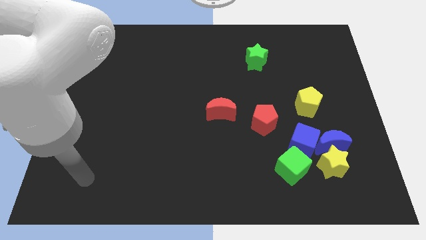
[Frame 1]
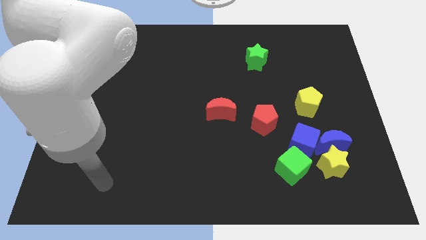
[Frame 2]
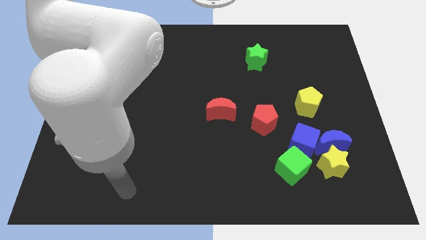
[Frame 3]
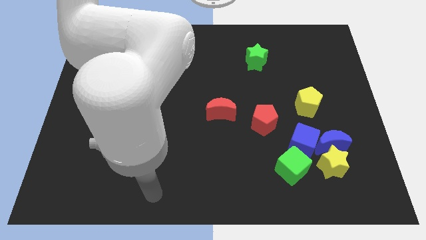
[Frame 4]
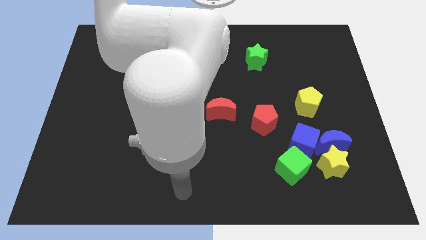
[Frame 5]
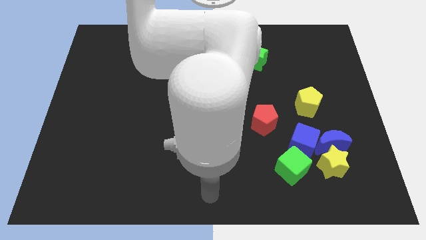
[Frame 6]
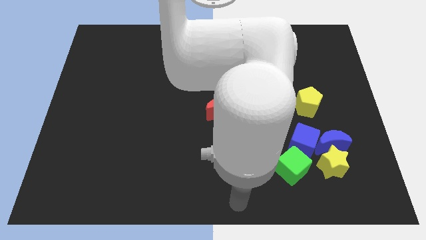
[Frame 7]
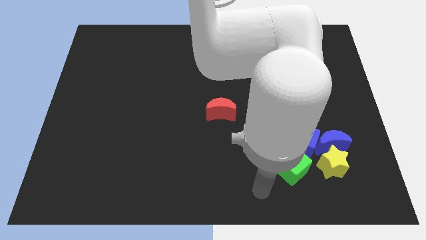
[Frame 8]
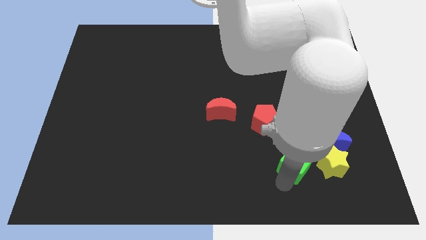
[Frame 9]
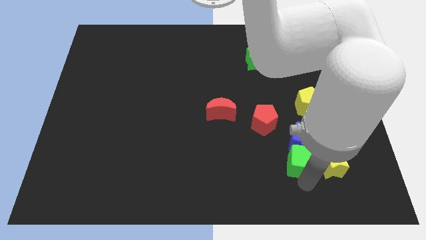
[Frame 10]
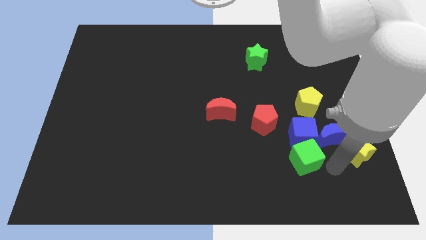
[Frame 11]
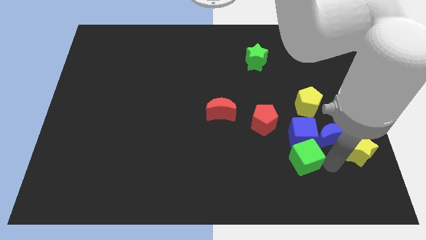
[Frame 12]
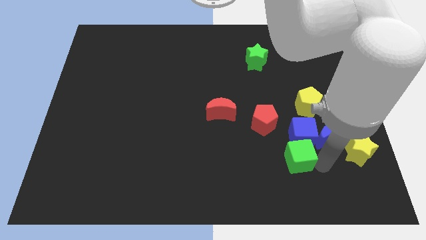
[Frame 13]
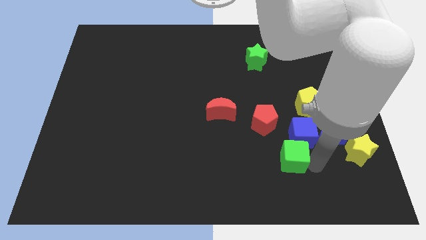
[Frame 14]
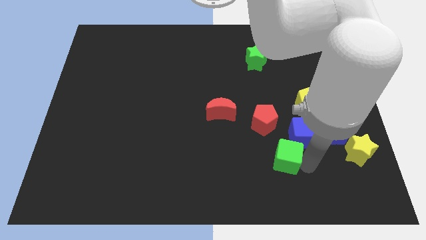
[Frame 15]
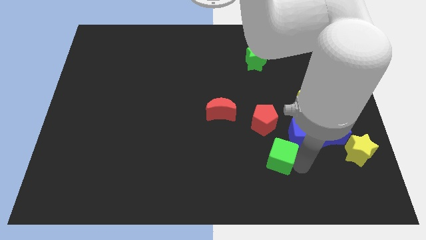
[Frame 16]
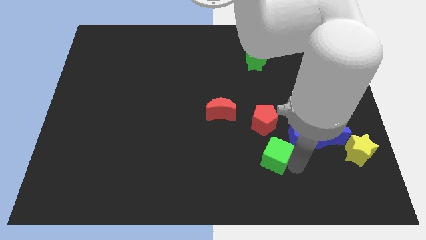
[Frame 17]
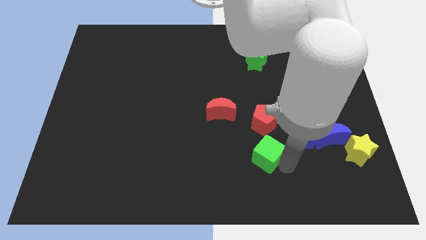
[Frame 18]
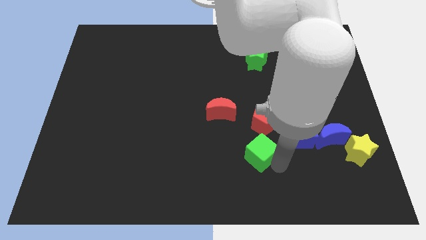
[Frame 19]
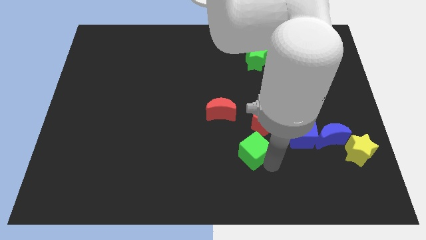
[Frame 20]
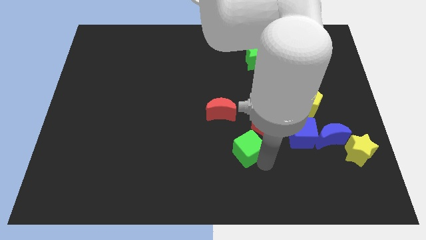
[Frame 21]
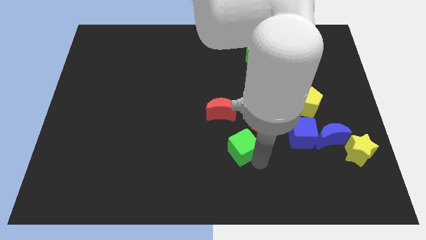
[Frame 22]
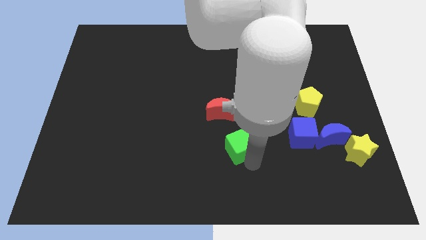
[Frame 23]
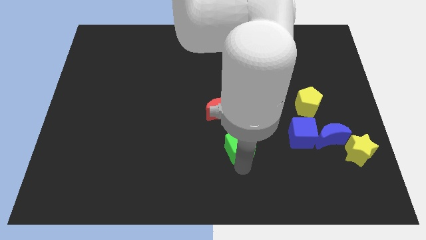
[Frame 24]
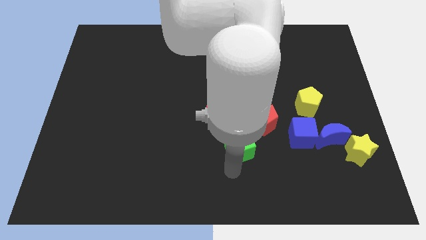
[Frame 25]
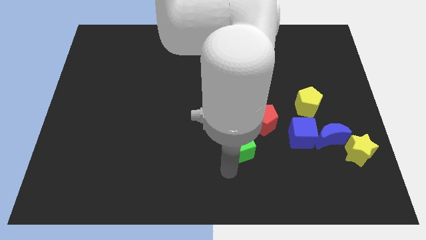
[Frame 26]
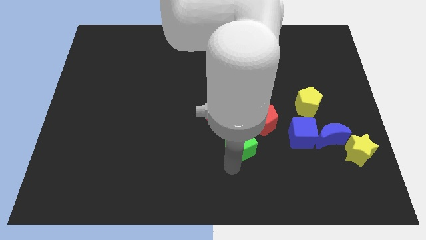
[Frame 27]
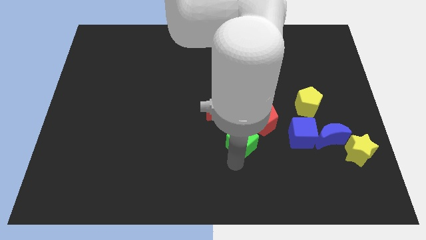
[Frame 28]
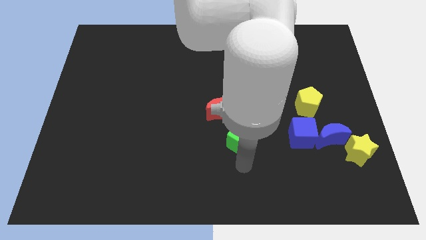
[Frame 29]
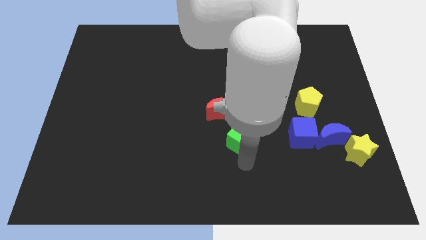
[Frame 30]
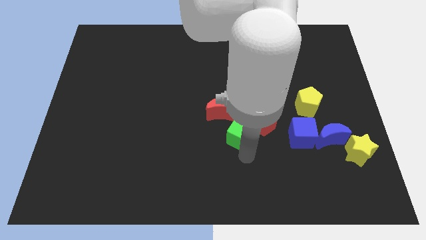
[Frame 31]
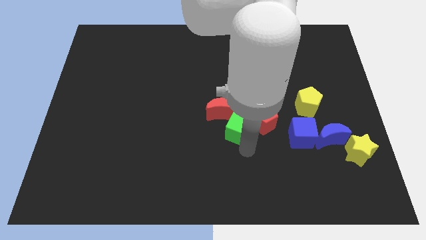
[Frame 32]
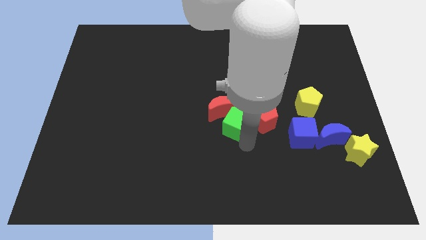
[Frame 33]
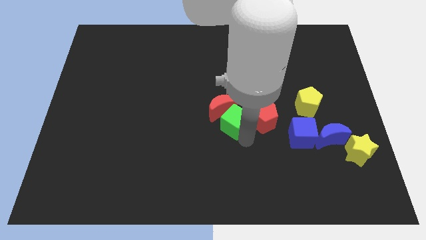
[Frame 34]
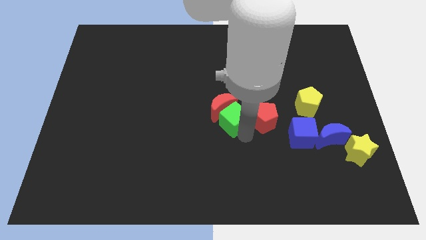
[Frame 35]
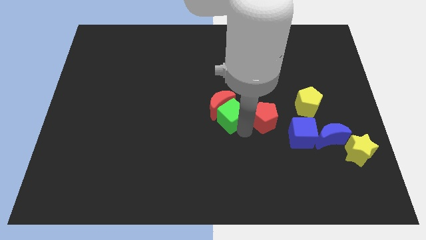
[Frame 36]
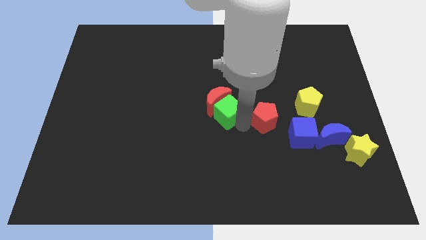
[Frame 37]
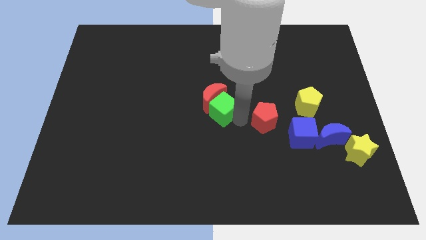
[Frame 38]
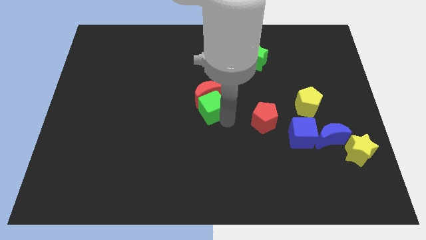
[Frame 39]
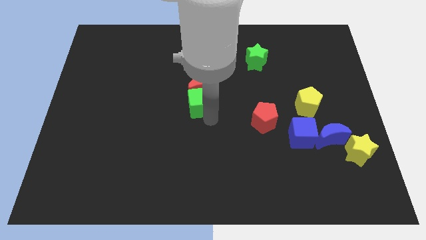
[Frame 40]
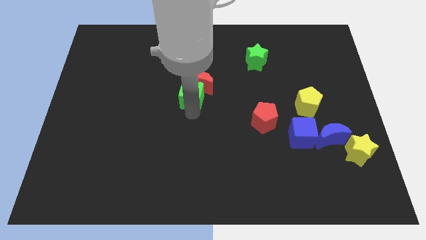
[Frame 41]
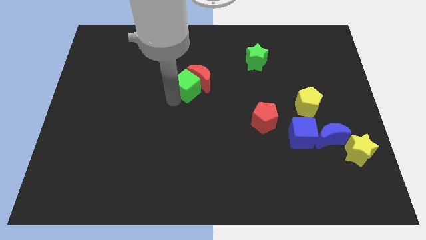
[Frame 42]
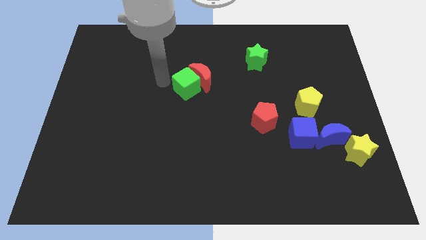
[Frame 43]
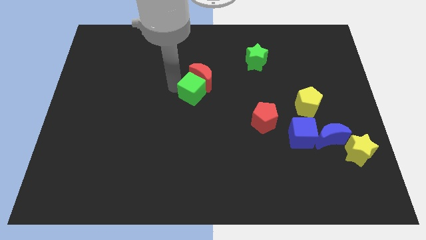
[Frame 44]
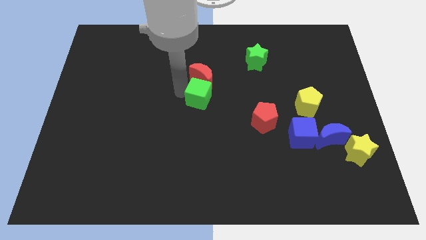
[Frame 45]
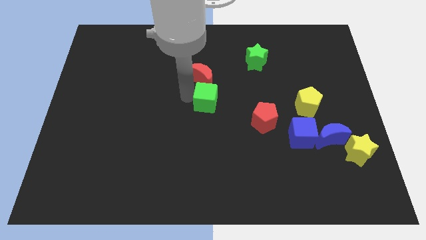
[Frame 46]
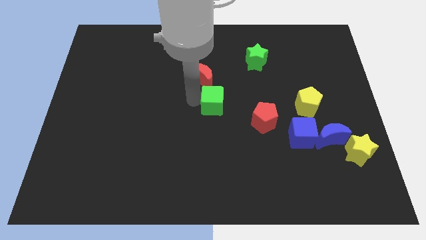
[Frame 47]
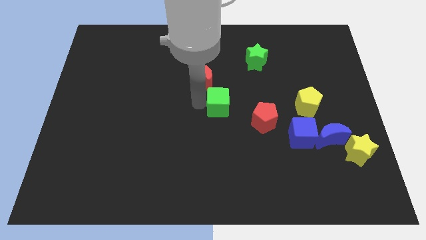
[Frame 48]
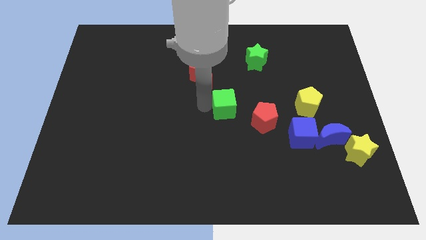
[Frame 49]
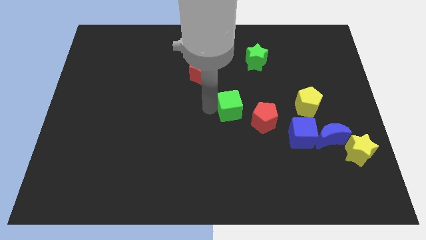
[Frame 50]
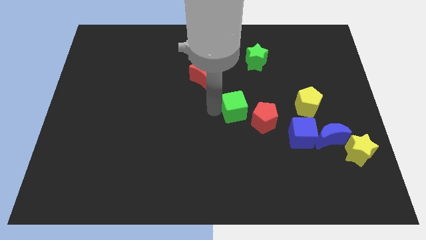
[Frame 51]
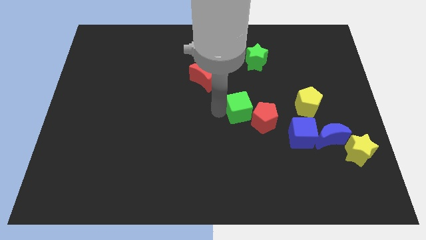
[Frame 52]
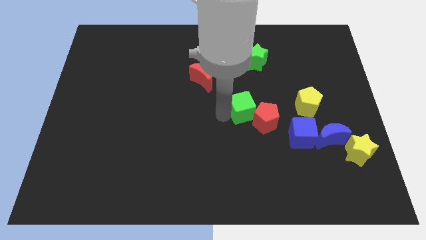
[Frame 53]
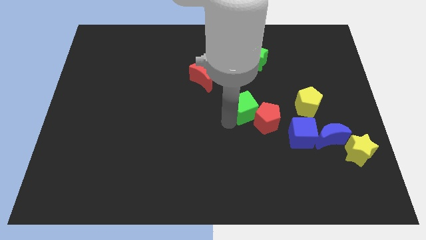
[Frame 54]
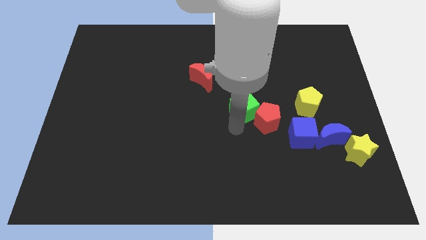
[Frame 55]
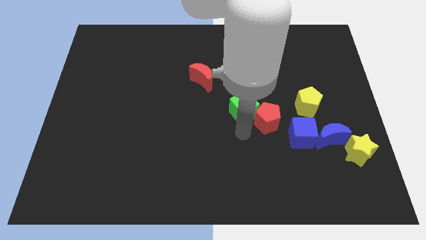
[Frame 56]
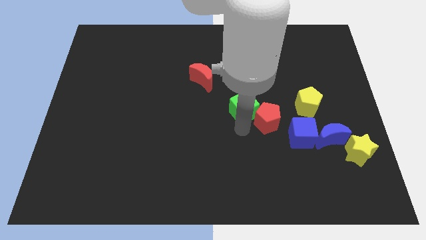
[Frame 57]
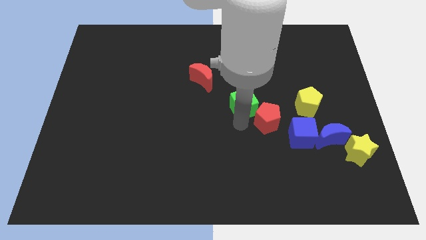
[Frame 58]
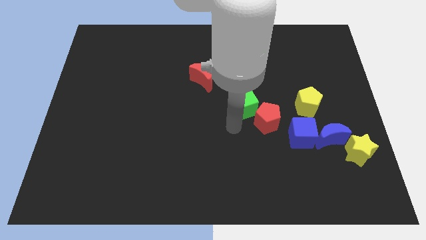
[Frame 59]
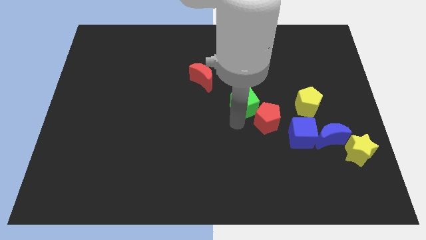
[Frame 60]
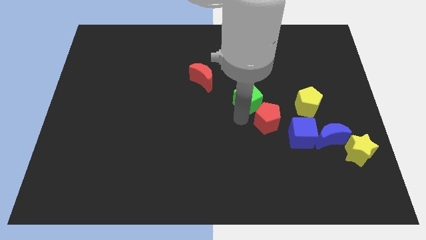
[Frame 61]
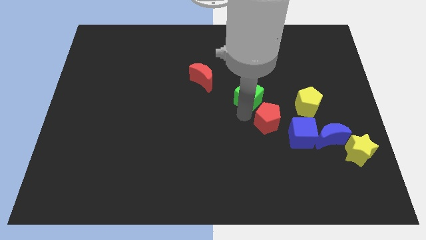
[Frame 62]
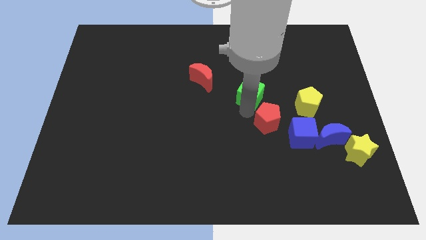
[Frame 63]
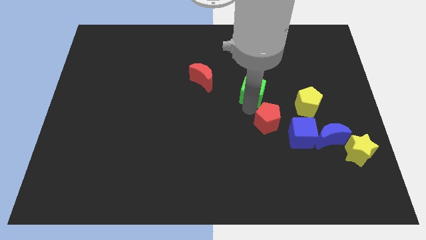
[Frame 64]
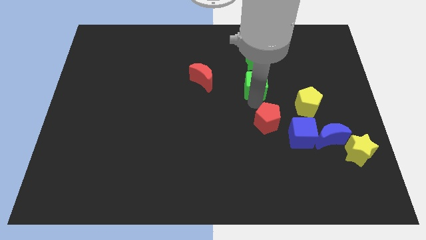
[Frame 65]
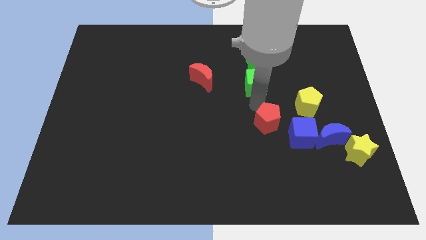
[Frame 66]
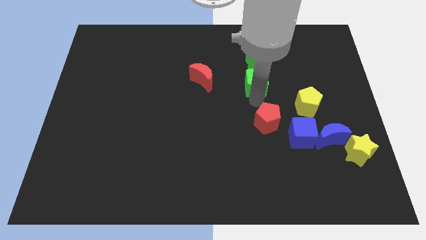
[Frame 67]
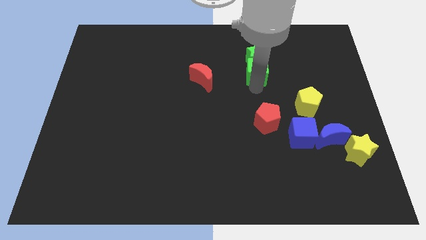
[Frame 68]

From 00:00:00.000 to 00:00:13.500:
put the green cube to the green star

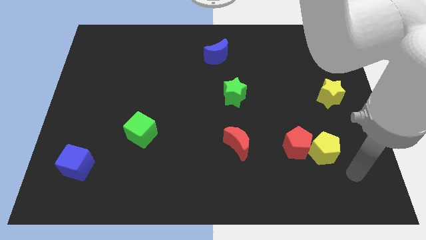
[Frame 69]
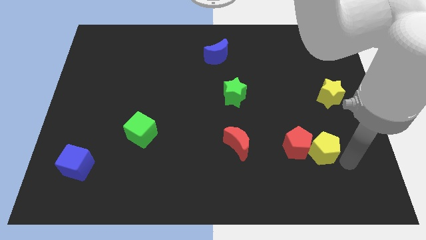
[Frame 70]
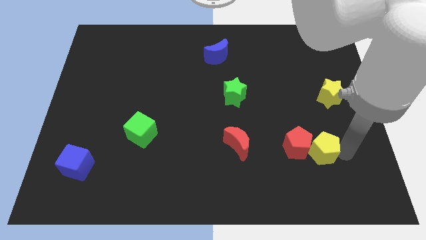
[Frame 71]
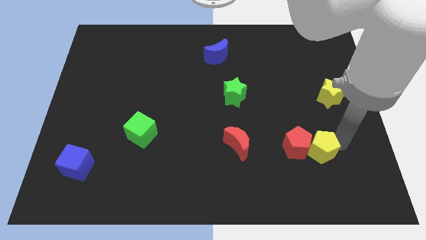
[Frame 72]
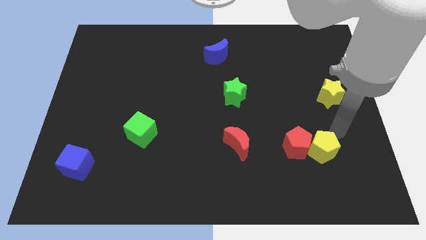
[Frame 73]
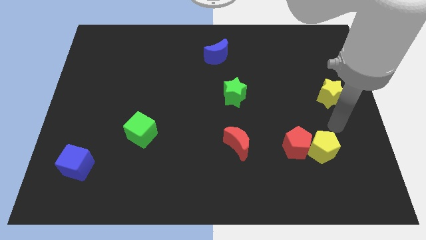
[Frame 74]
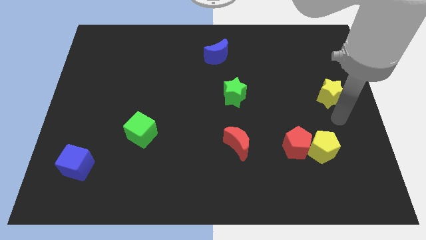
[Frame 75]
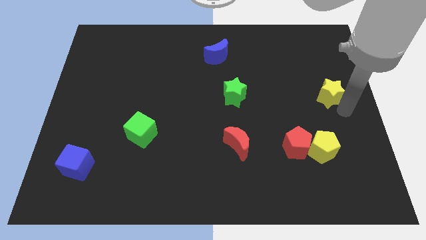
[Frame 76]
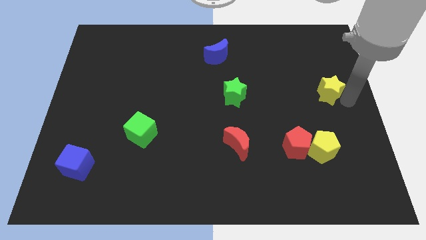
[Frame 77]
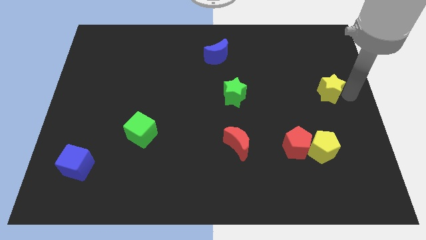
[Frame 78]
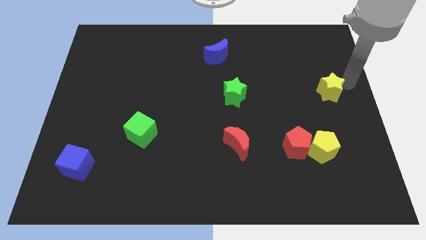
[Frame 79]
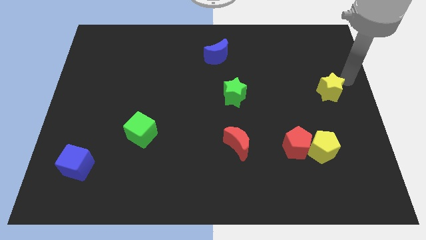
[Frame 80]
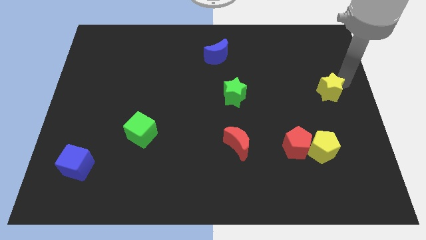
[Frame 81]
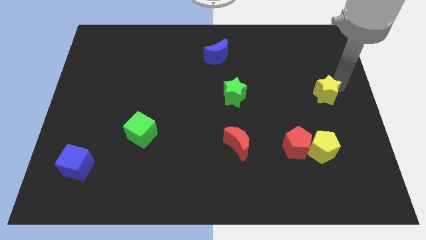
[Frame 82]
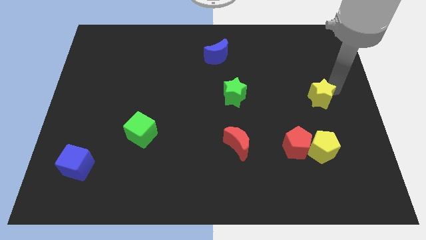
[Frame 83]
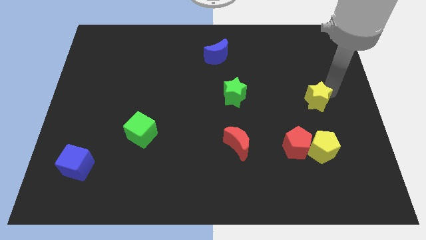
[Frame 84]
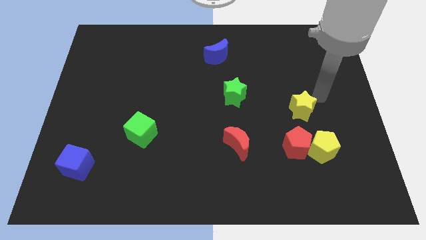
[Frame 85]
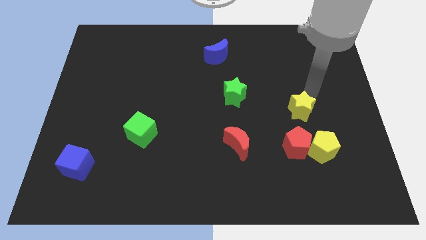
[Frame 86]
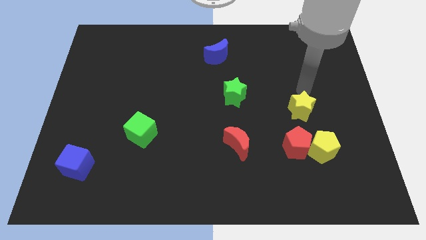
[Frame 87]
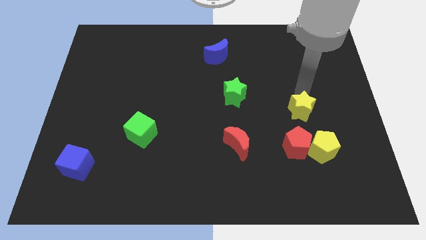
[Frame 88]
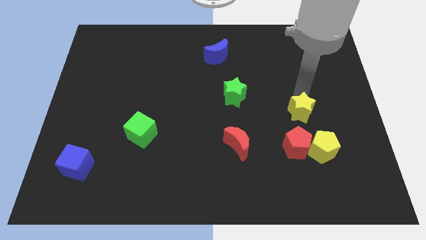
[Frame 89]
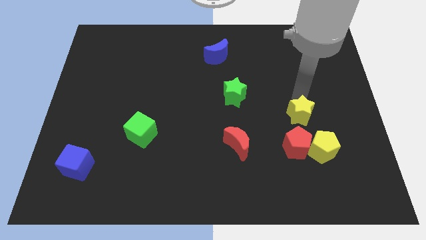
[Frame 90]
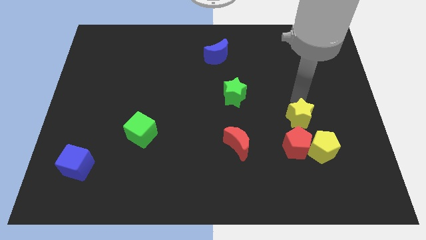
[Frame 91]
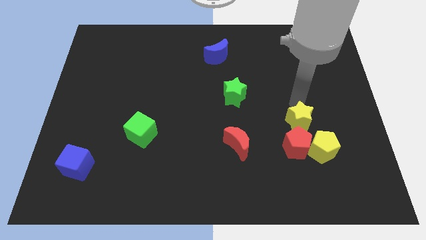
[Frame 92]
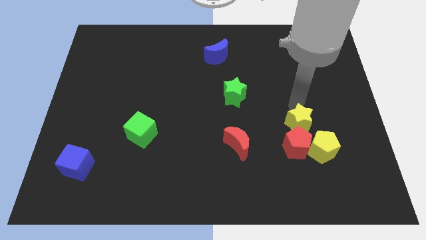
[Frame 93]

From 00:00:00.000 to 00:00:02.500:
put the yellow star towards the red pentagon
